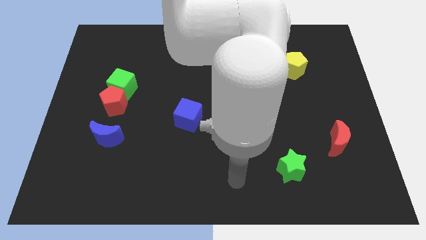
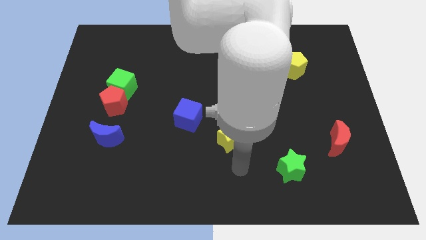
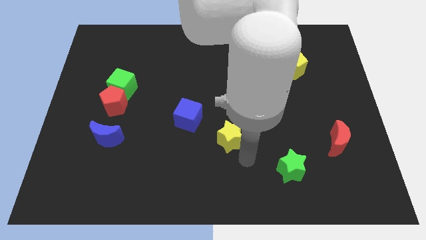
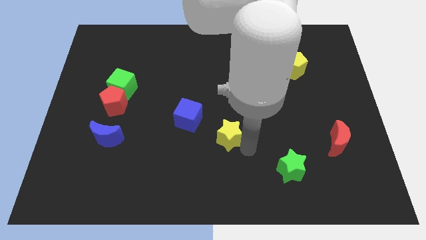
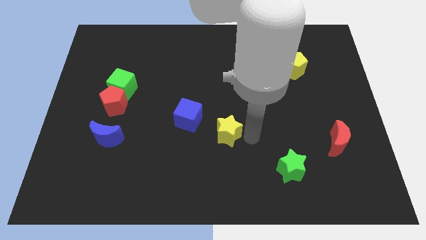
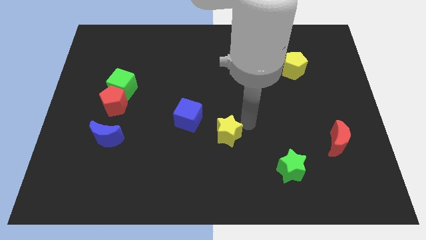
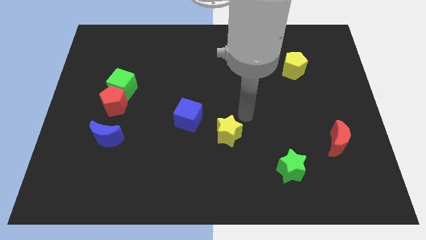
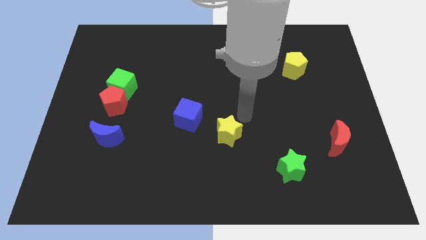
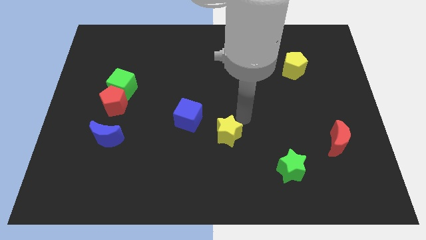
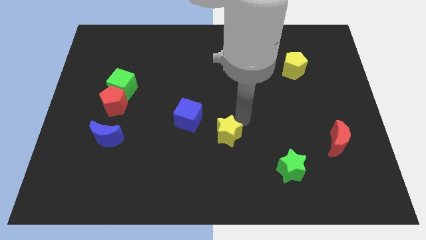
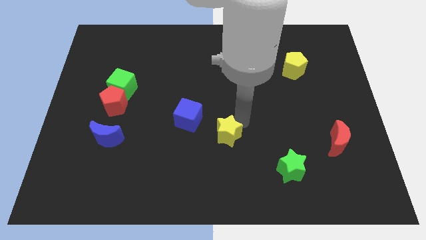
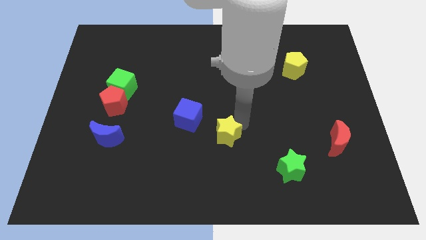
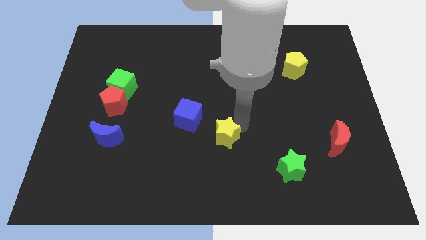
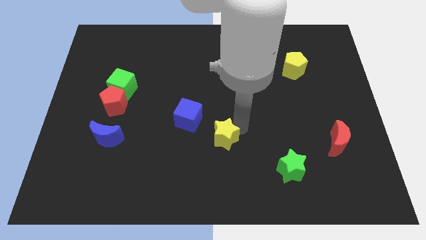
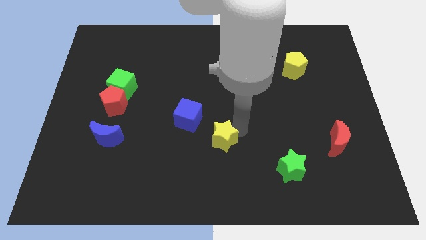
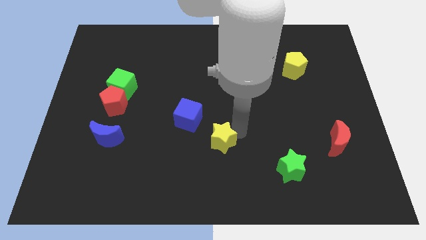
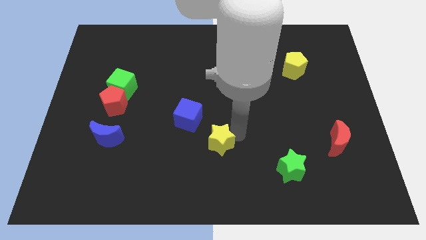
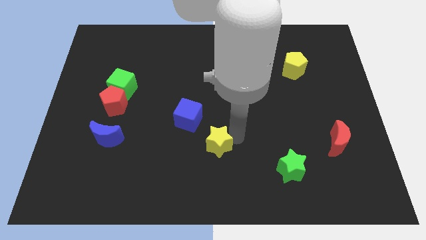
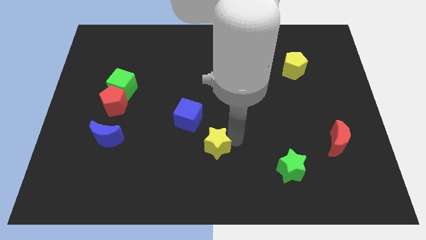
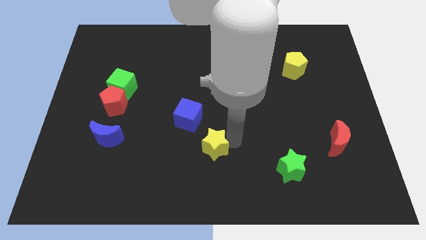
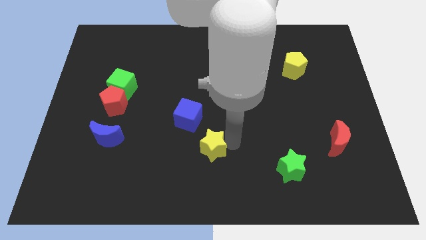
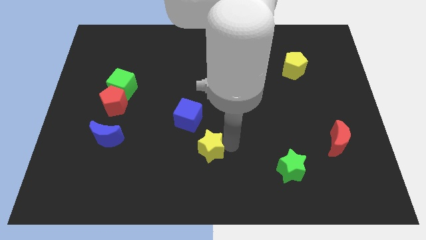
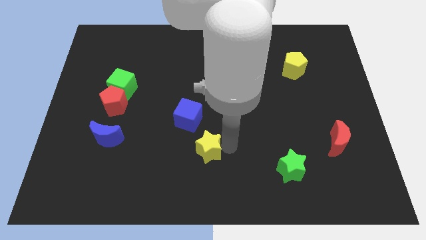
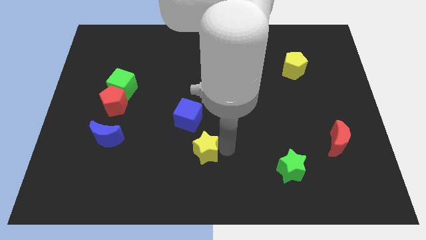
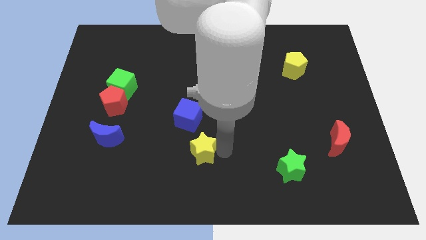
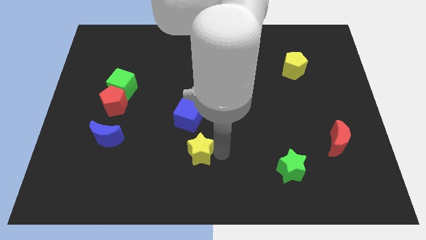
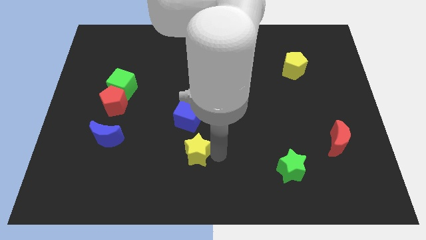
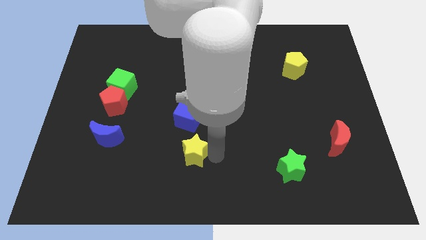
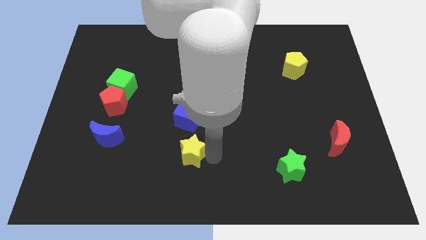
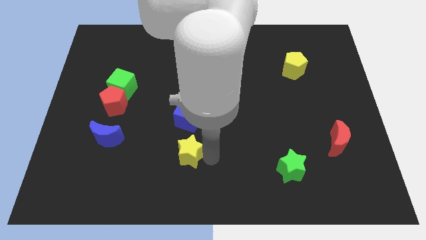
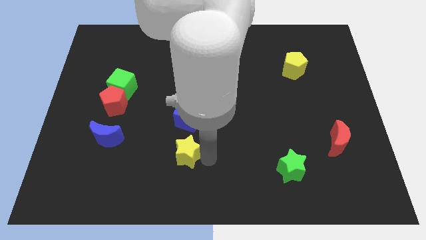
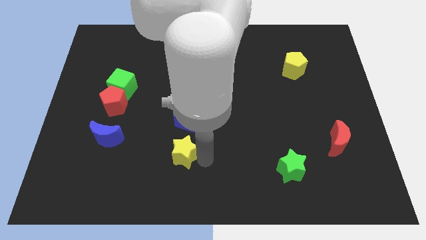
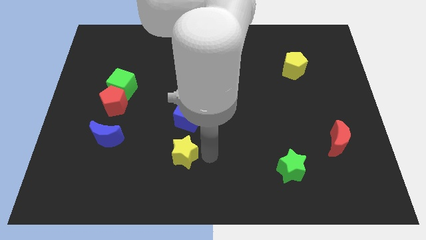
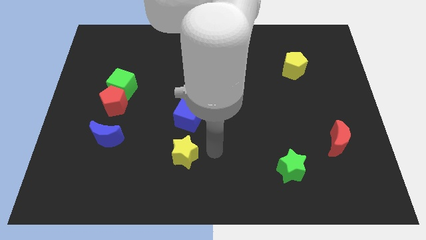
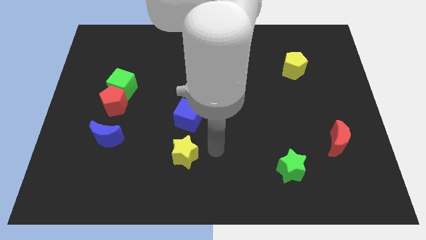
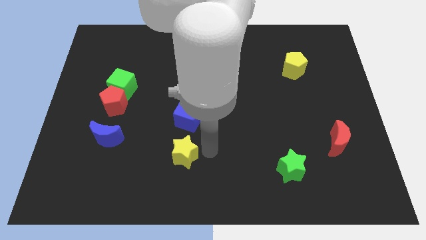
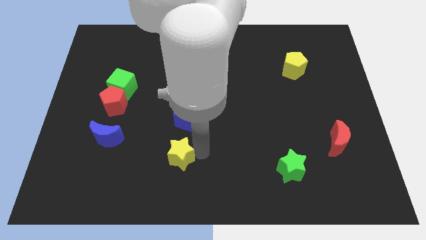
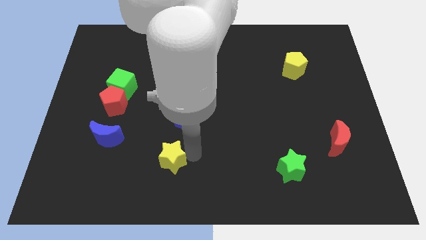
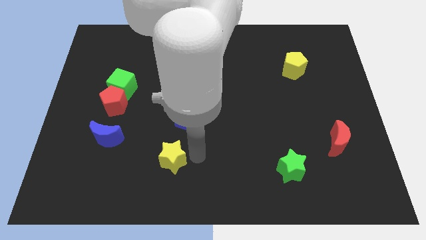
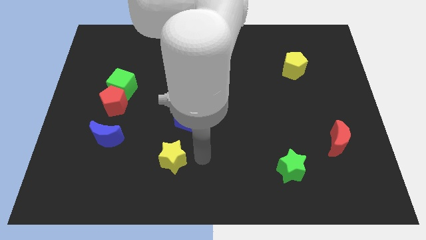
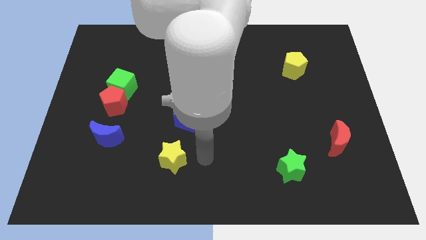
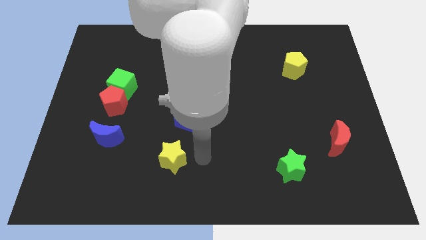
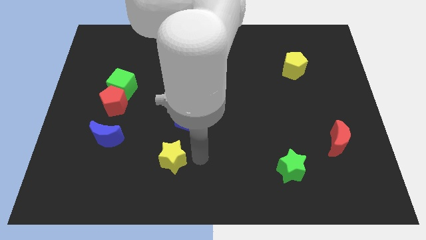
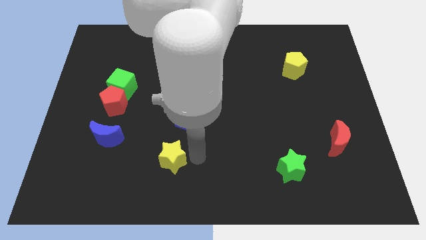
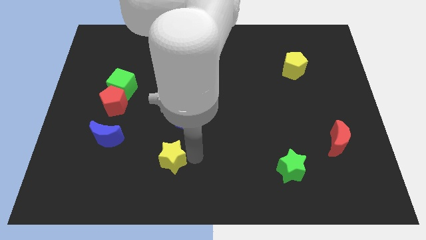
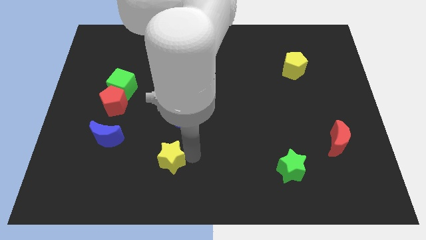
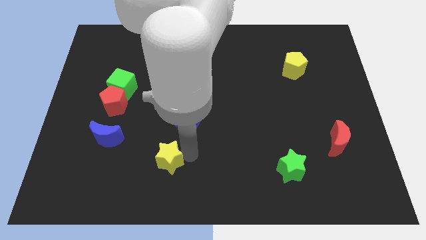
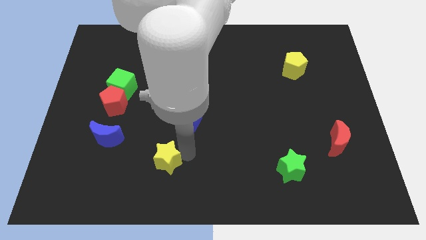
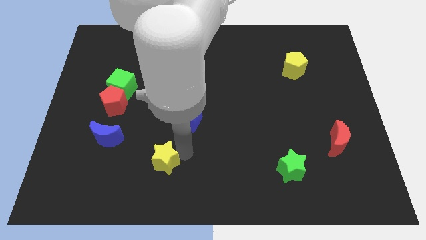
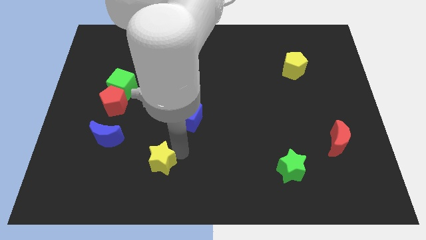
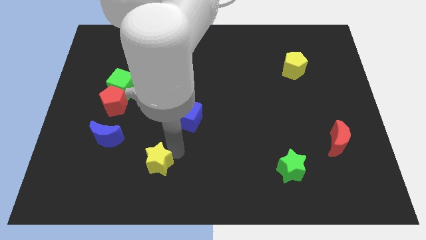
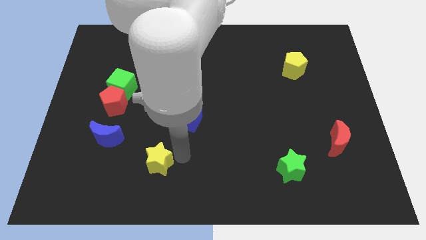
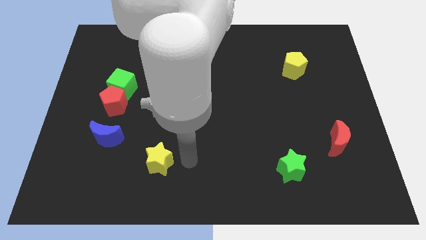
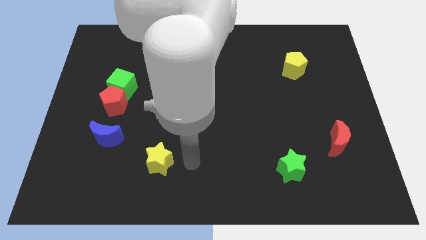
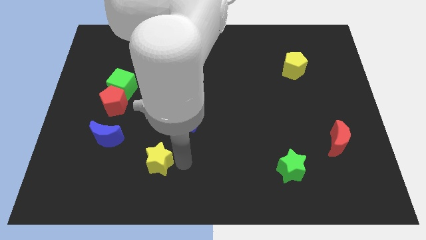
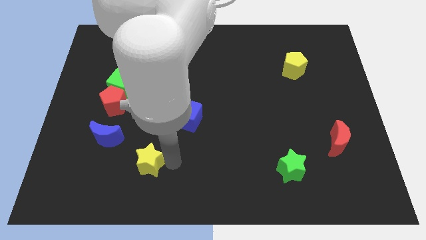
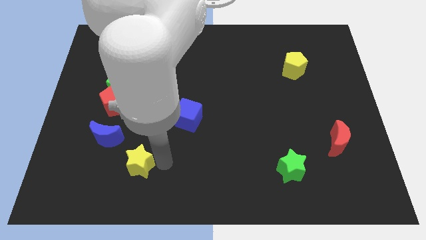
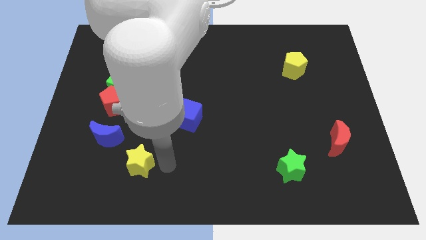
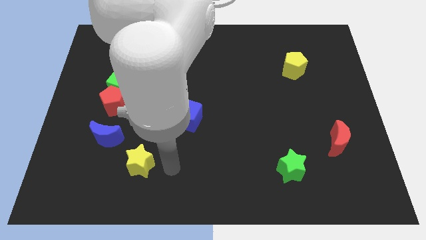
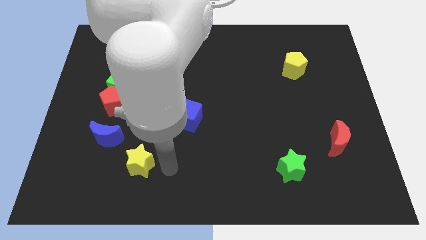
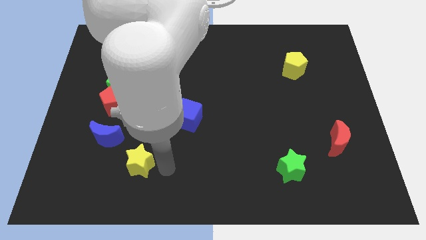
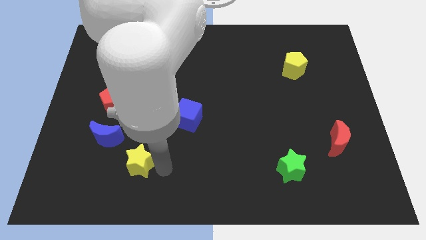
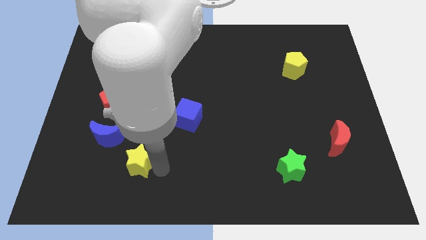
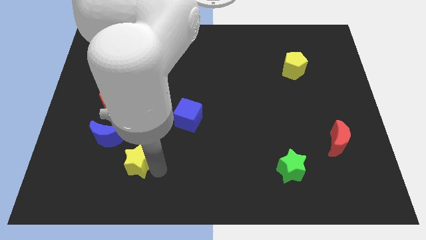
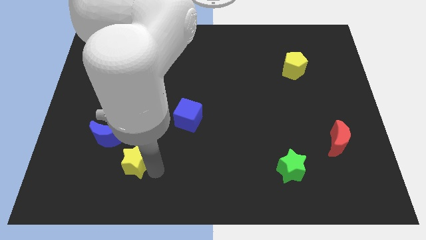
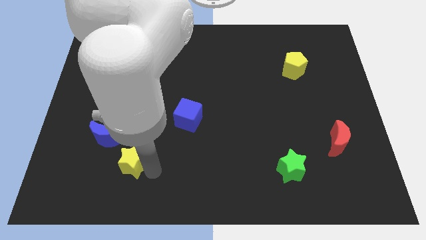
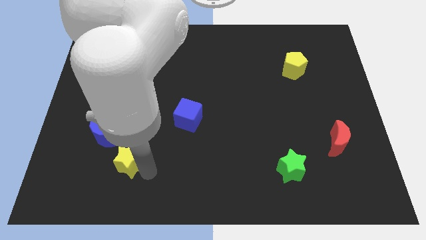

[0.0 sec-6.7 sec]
move the yellow star to the left

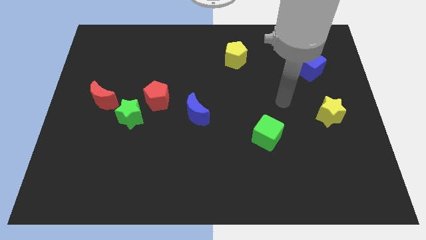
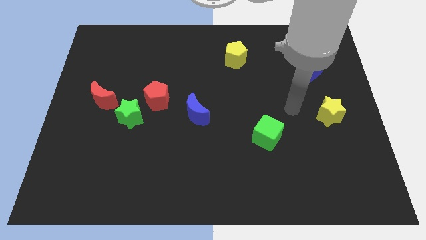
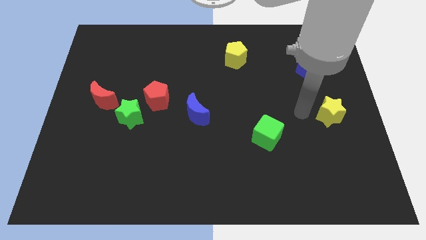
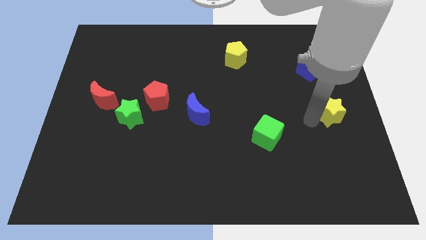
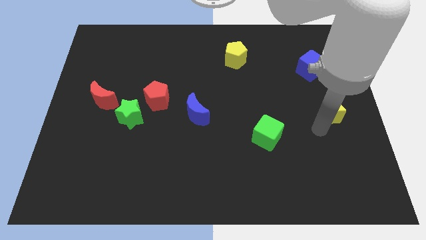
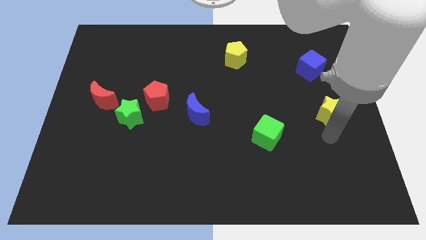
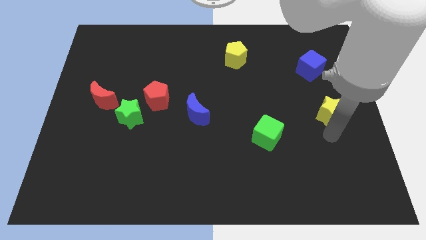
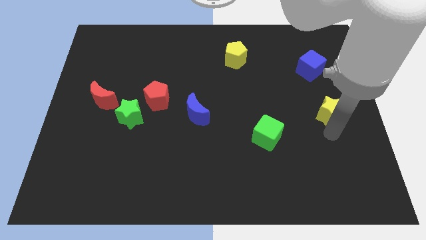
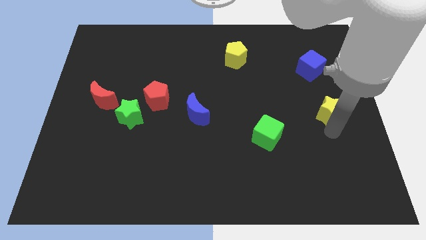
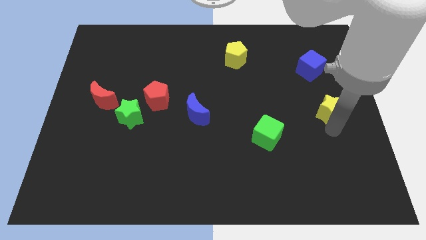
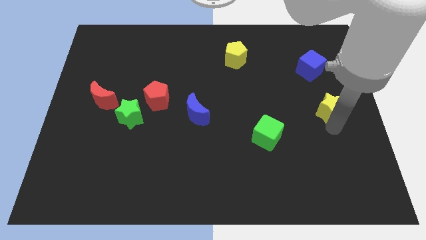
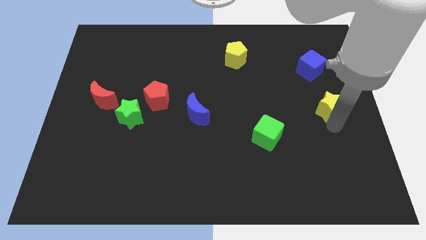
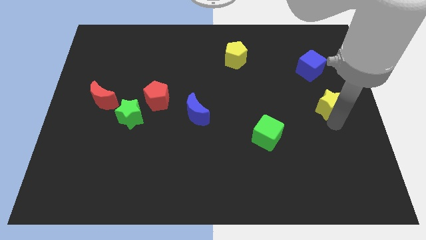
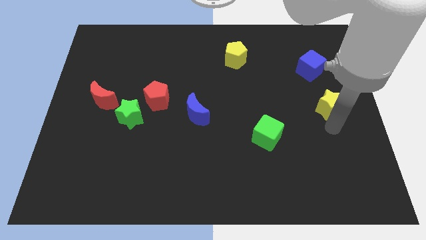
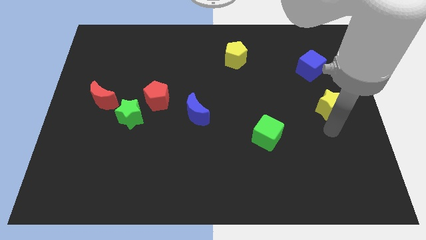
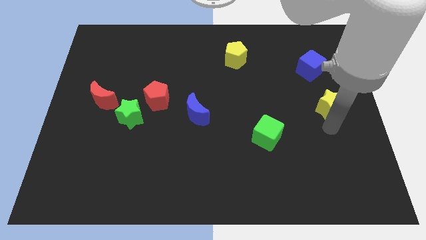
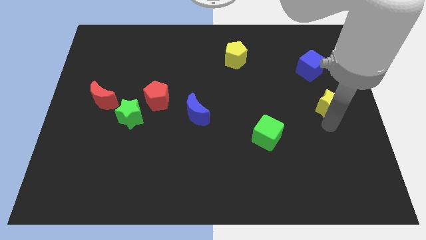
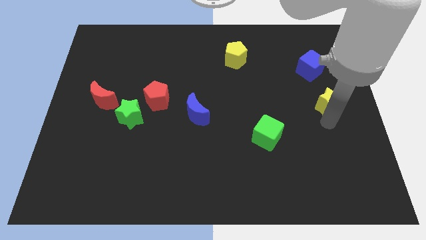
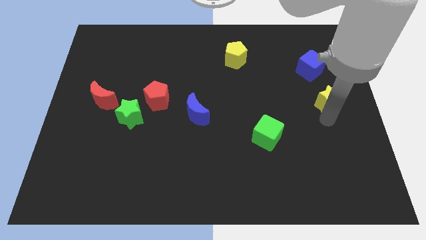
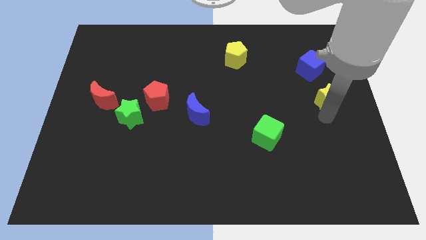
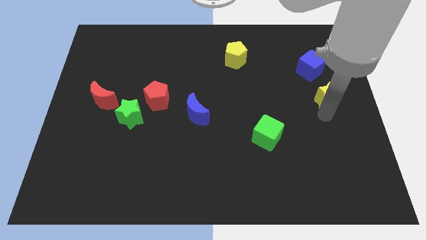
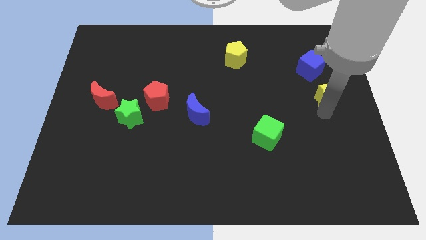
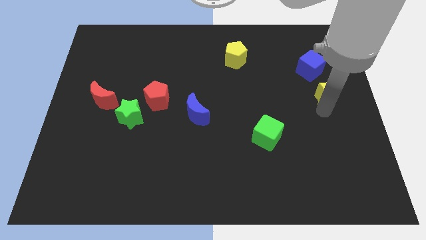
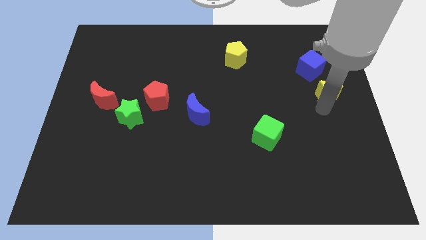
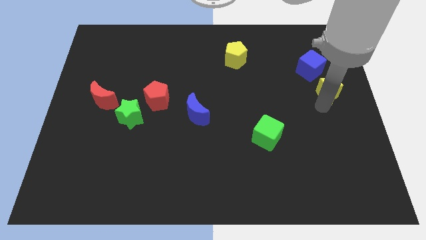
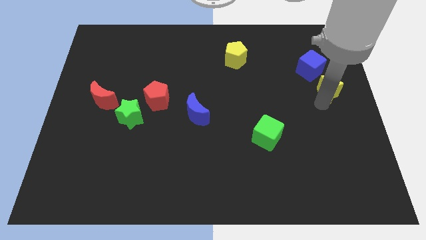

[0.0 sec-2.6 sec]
push the yellow star somewhat upwards
